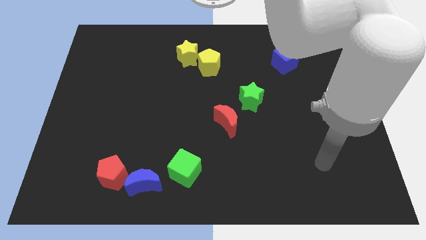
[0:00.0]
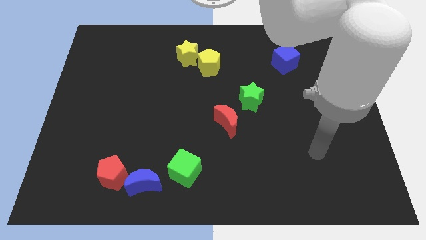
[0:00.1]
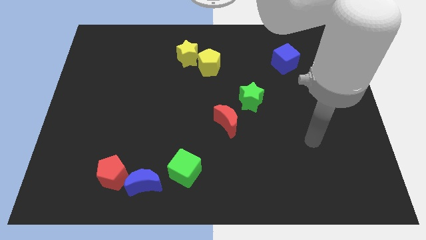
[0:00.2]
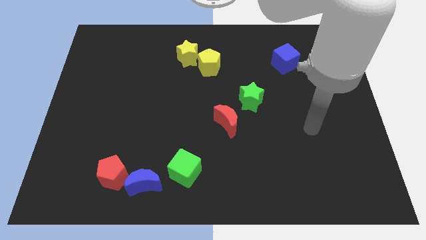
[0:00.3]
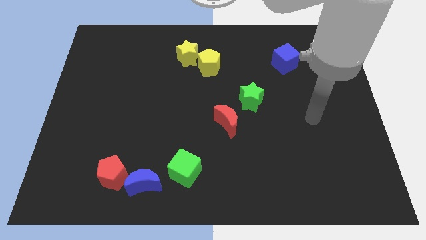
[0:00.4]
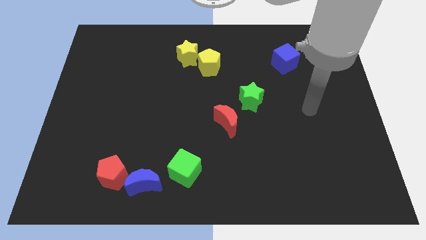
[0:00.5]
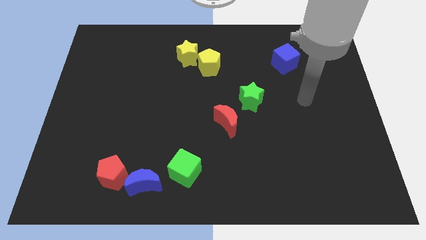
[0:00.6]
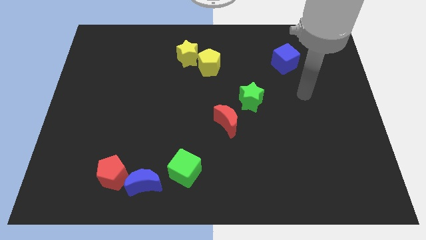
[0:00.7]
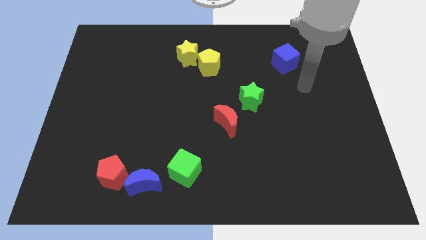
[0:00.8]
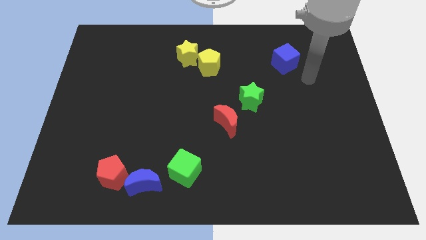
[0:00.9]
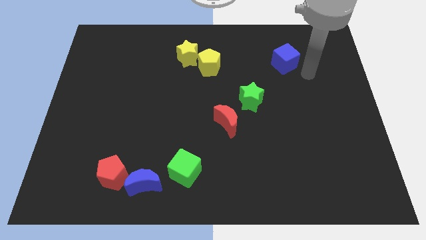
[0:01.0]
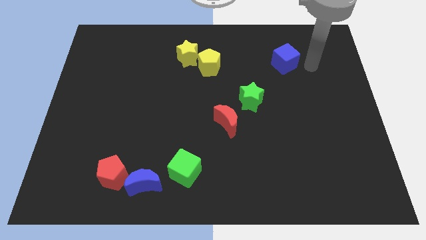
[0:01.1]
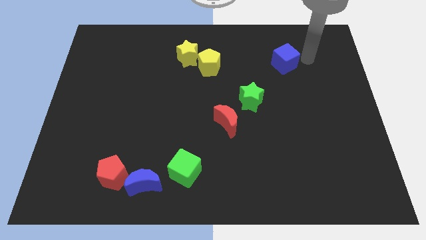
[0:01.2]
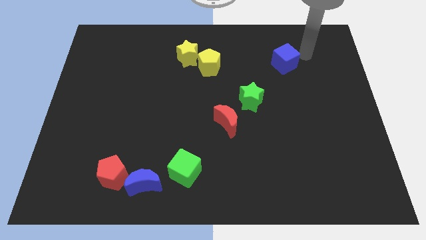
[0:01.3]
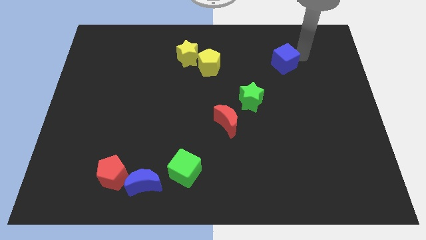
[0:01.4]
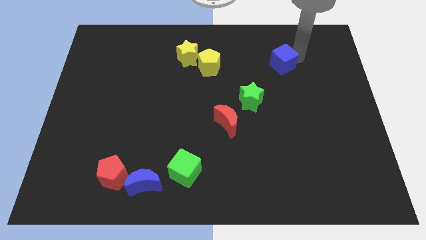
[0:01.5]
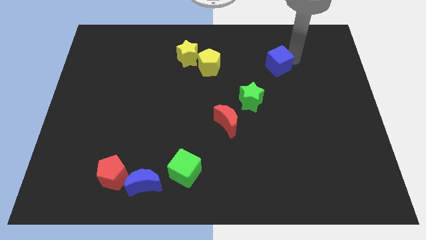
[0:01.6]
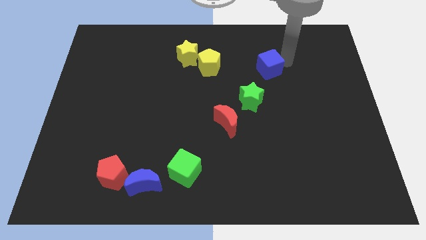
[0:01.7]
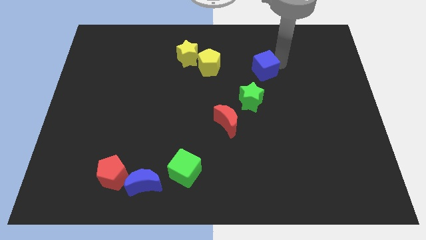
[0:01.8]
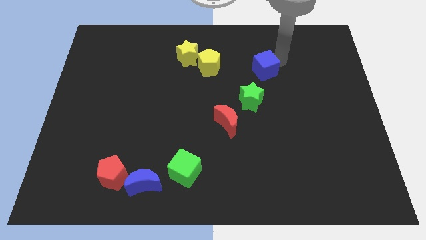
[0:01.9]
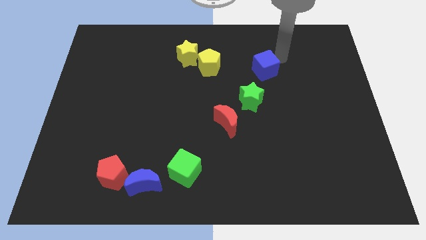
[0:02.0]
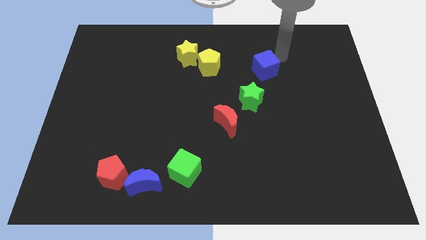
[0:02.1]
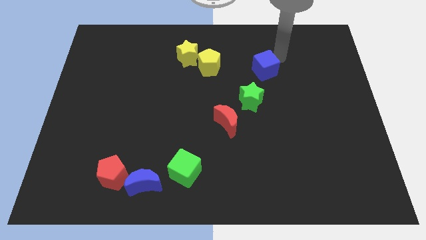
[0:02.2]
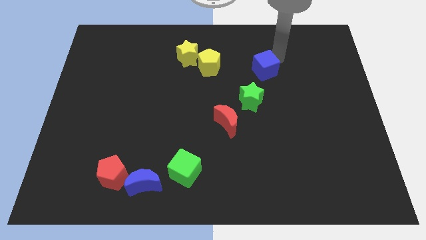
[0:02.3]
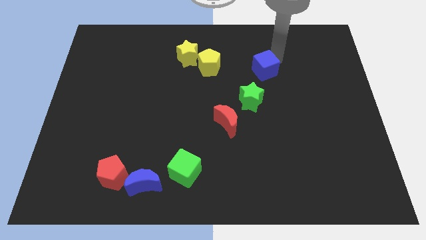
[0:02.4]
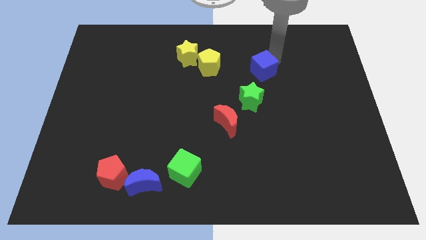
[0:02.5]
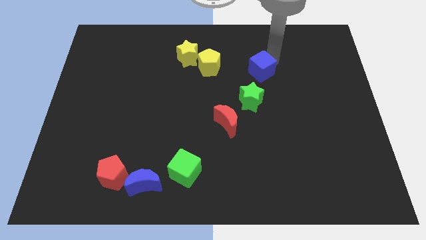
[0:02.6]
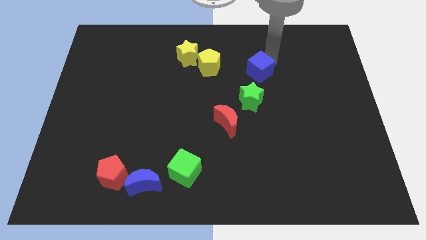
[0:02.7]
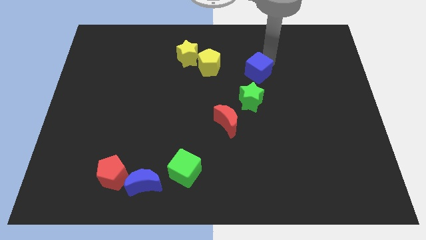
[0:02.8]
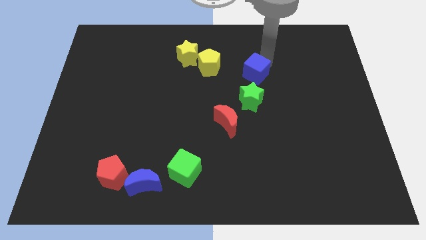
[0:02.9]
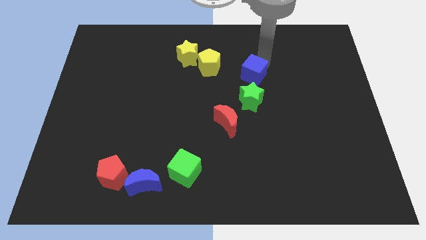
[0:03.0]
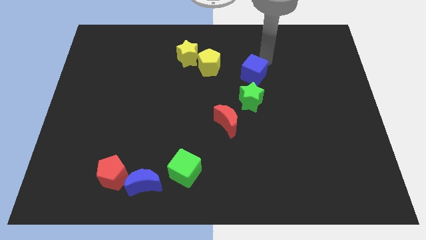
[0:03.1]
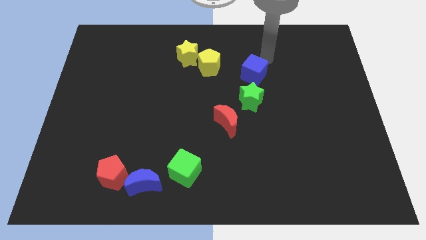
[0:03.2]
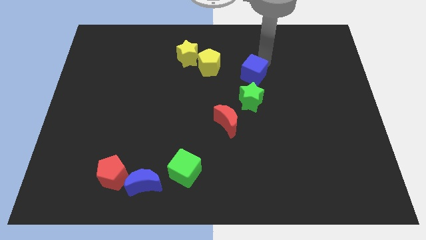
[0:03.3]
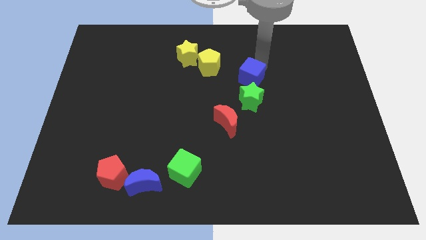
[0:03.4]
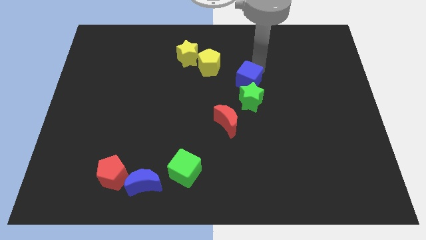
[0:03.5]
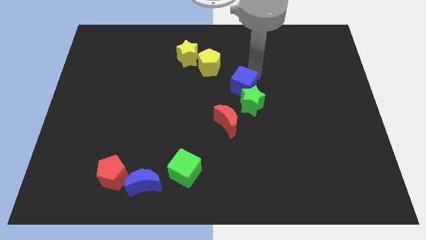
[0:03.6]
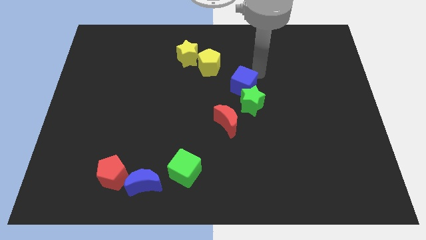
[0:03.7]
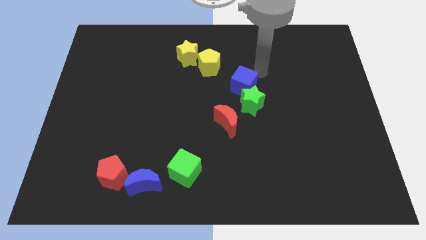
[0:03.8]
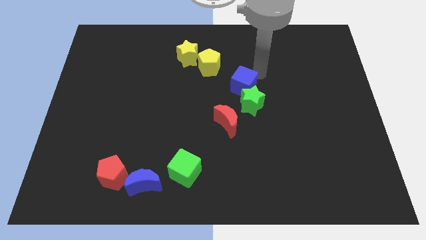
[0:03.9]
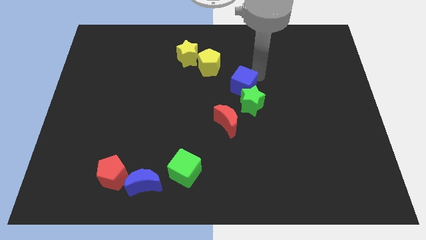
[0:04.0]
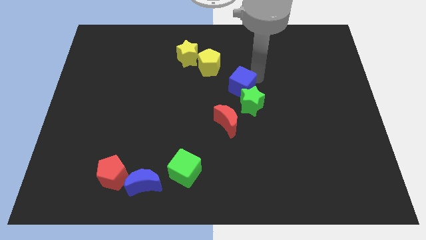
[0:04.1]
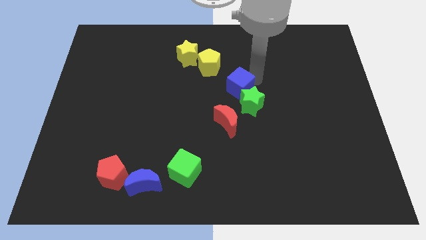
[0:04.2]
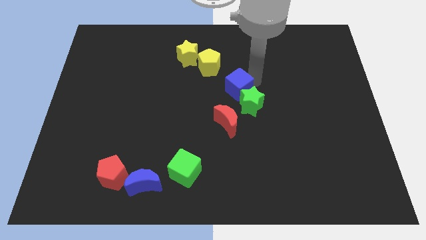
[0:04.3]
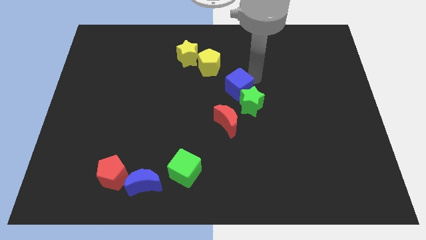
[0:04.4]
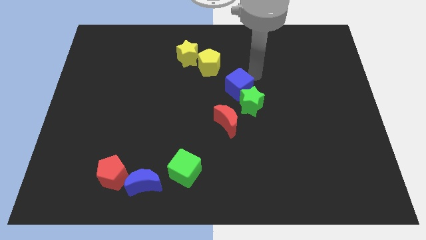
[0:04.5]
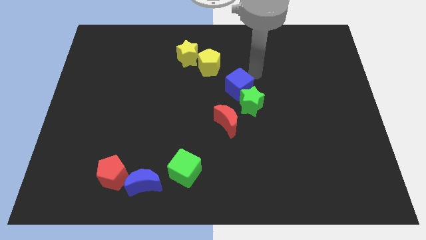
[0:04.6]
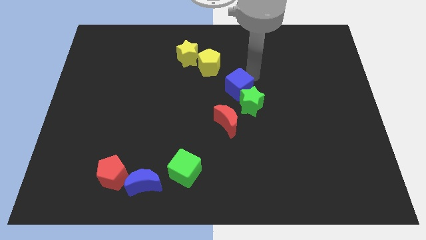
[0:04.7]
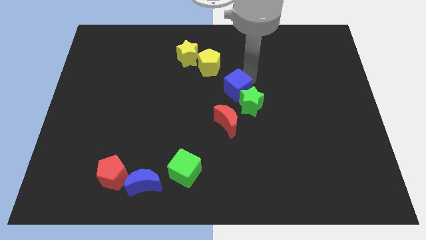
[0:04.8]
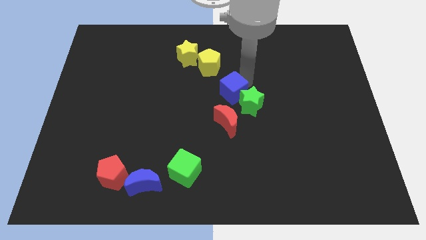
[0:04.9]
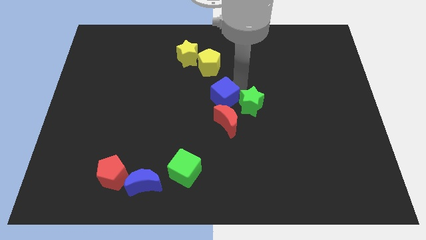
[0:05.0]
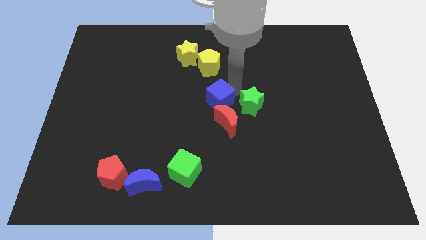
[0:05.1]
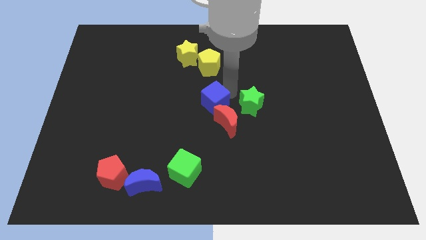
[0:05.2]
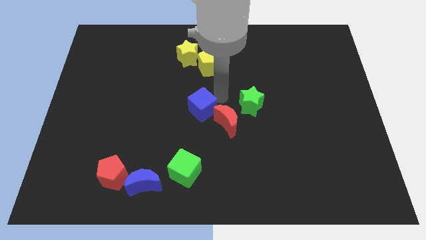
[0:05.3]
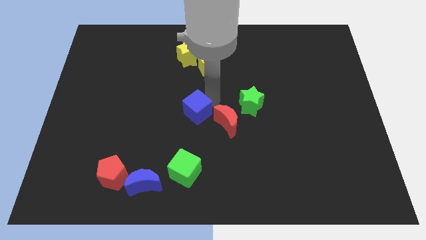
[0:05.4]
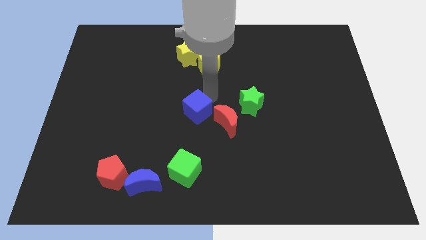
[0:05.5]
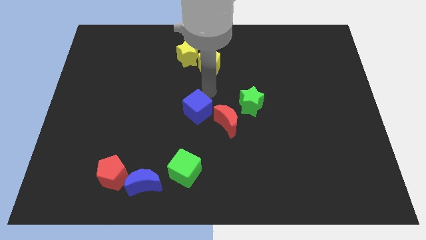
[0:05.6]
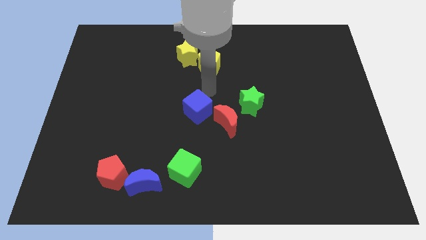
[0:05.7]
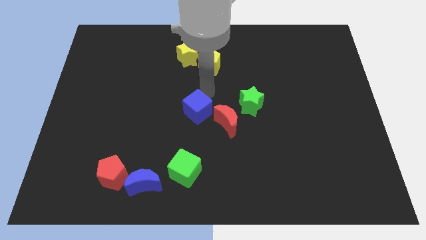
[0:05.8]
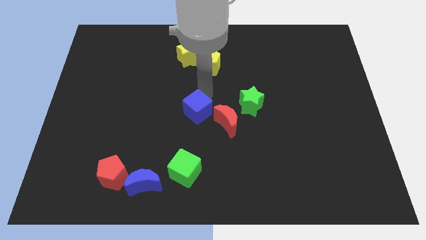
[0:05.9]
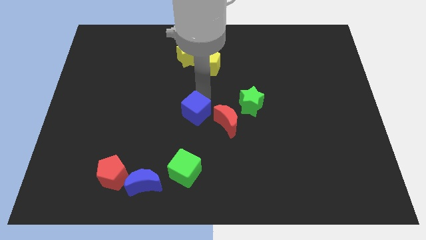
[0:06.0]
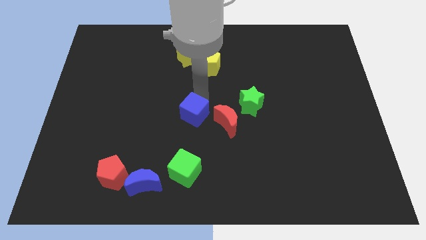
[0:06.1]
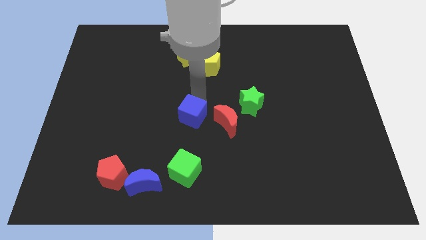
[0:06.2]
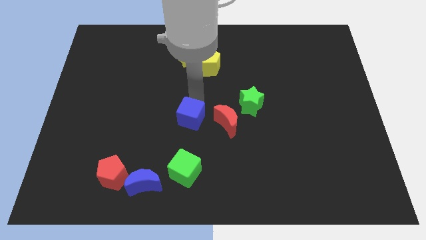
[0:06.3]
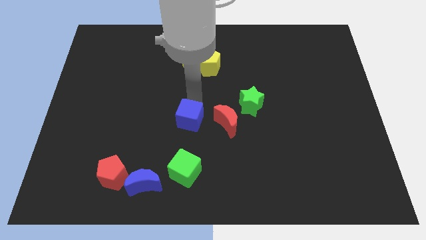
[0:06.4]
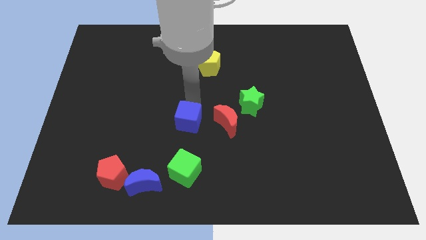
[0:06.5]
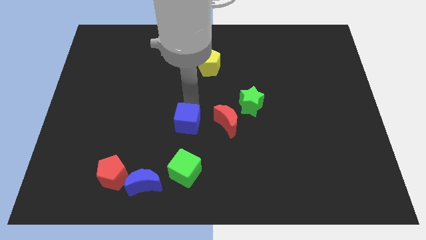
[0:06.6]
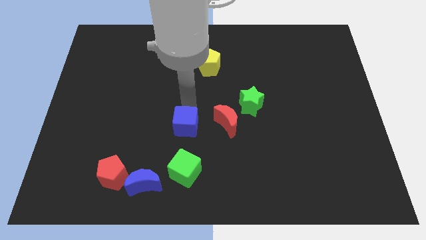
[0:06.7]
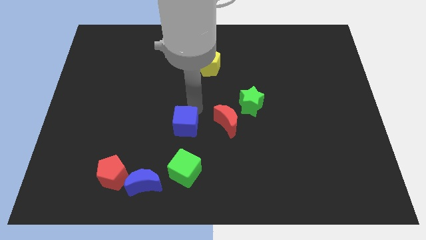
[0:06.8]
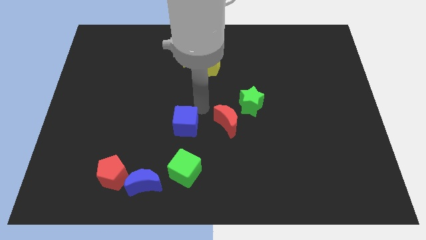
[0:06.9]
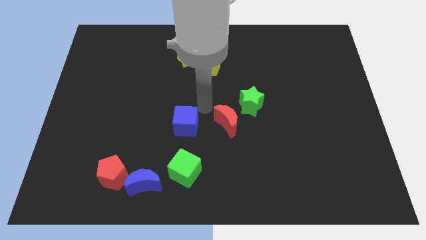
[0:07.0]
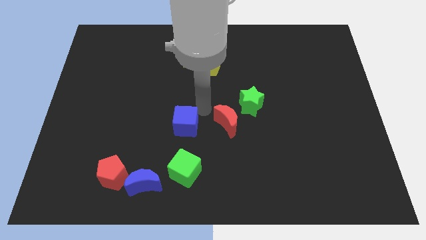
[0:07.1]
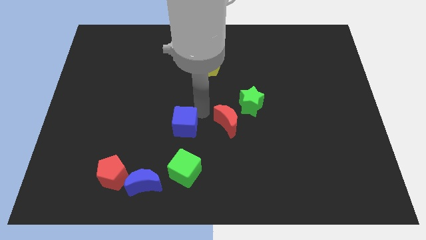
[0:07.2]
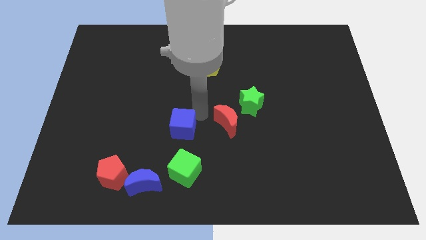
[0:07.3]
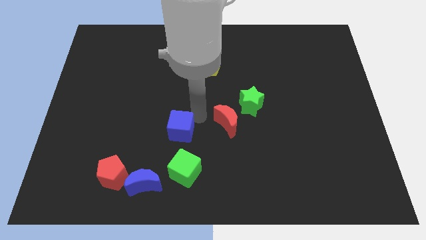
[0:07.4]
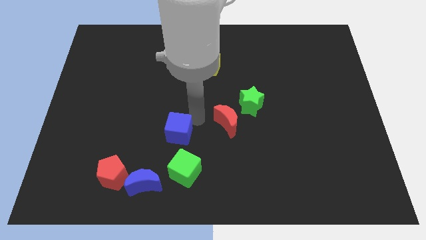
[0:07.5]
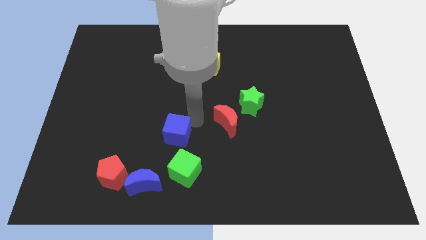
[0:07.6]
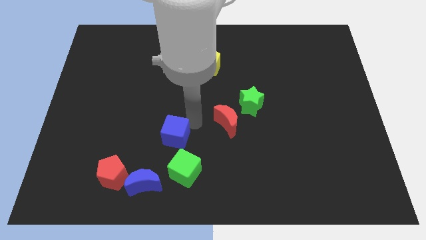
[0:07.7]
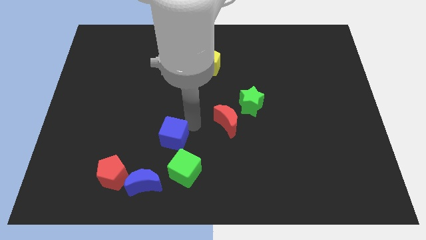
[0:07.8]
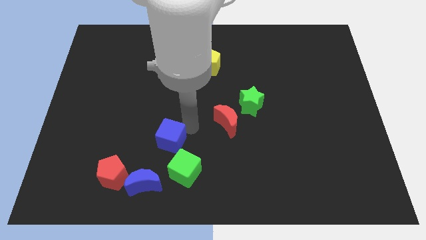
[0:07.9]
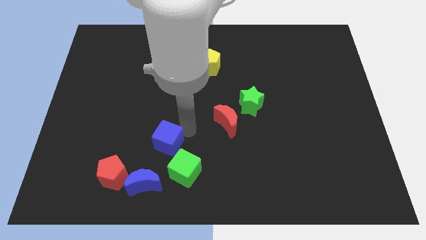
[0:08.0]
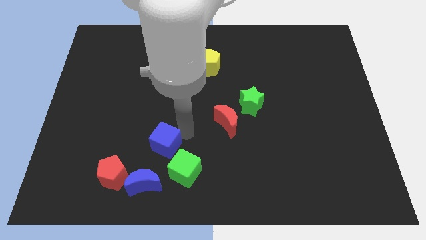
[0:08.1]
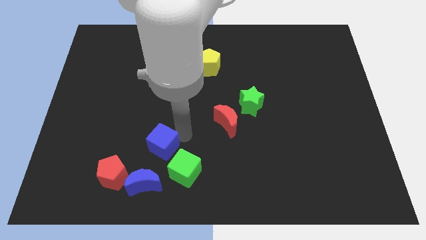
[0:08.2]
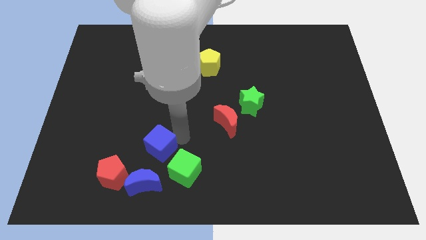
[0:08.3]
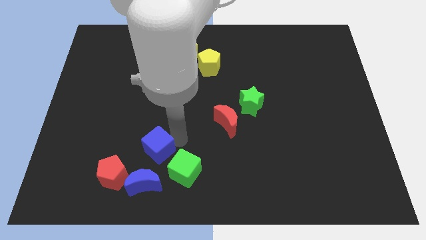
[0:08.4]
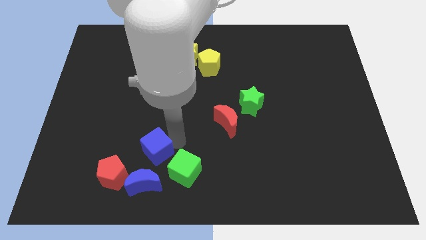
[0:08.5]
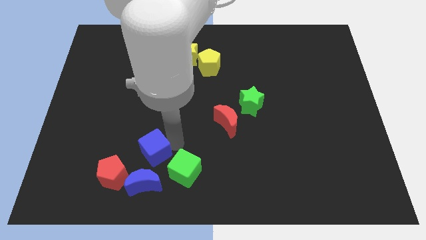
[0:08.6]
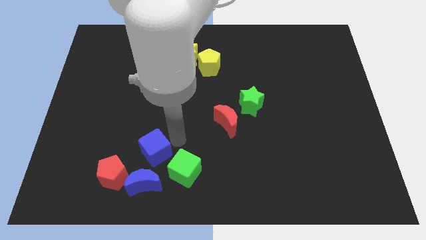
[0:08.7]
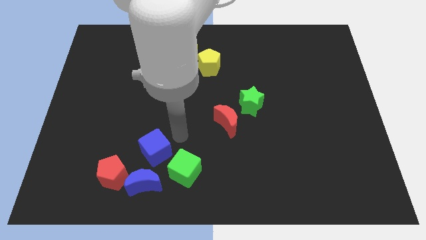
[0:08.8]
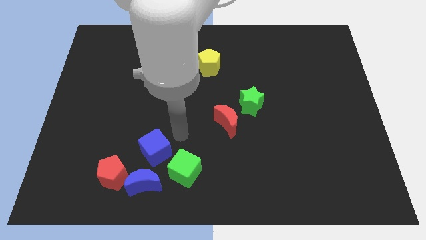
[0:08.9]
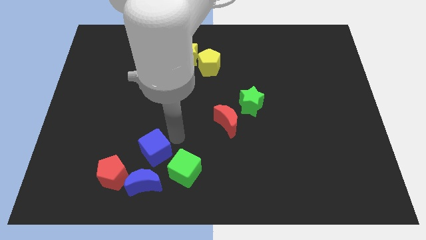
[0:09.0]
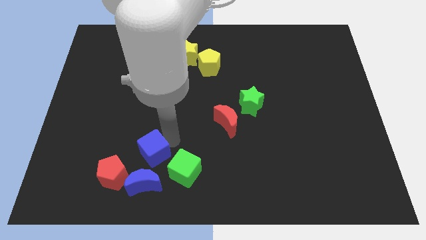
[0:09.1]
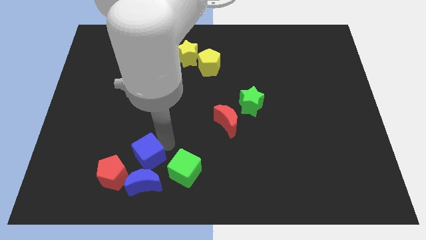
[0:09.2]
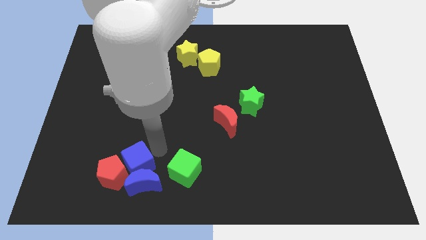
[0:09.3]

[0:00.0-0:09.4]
put the blue cube close to the red pentagon
